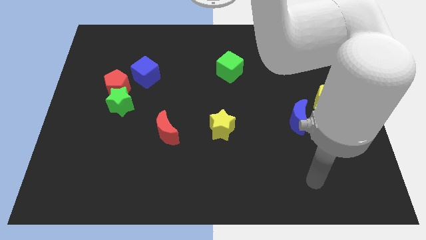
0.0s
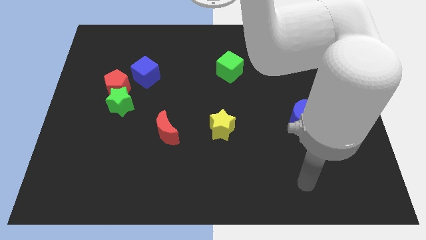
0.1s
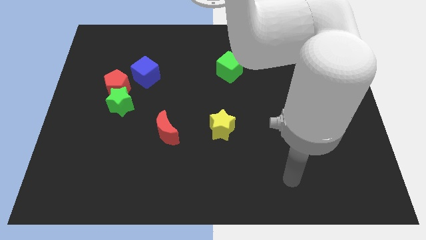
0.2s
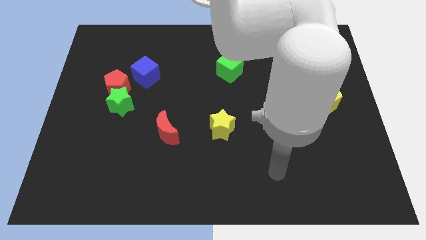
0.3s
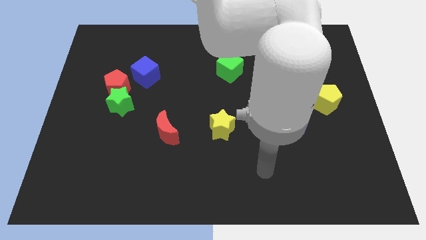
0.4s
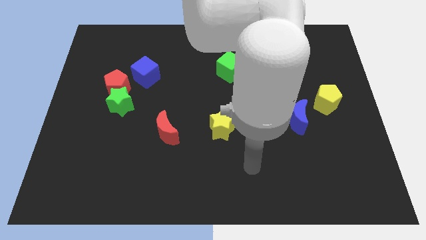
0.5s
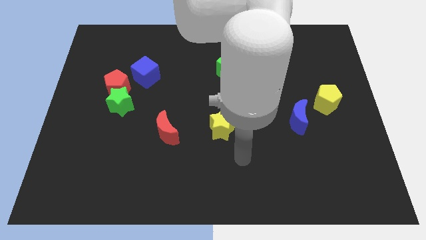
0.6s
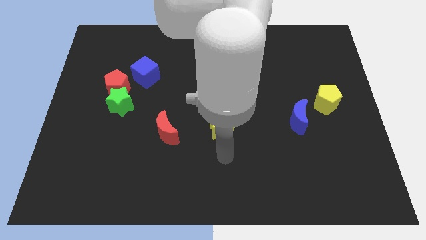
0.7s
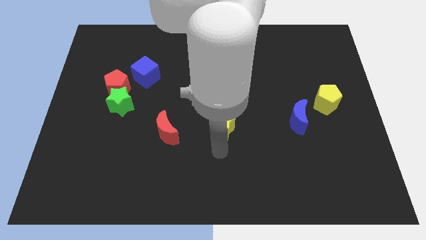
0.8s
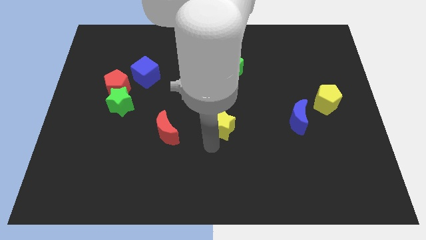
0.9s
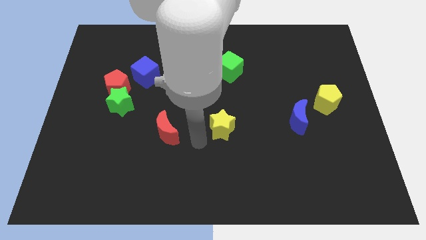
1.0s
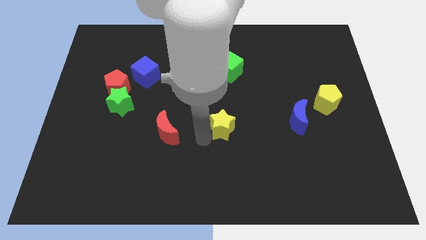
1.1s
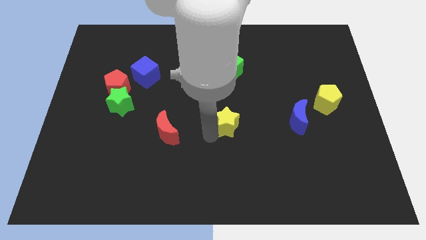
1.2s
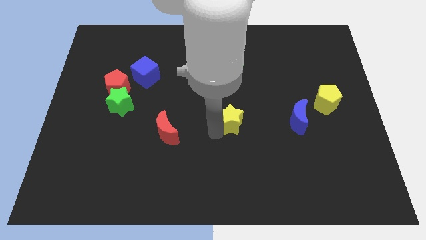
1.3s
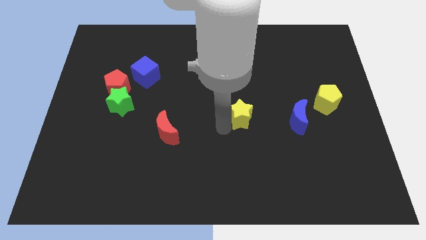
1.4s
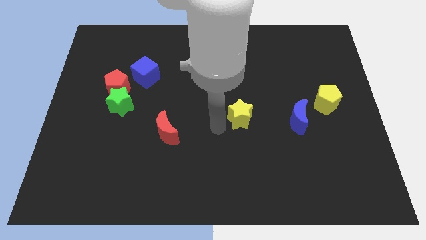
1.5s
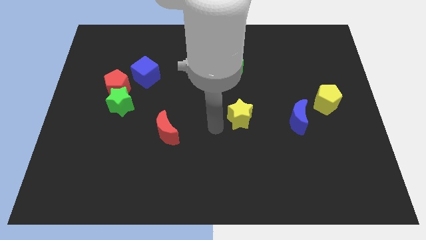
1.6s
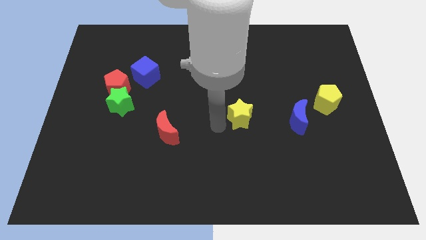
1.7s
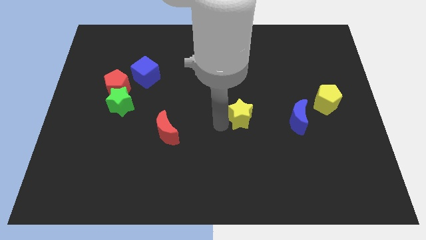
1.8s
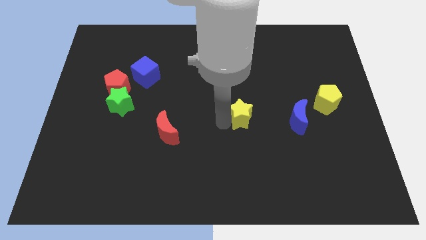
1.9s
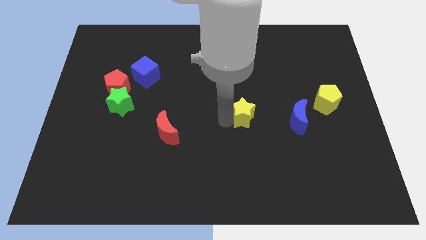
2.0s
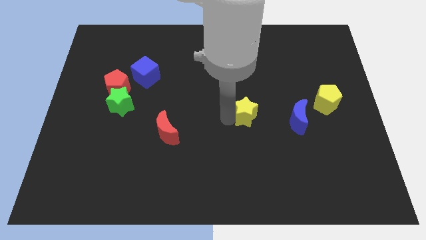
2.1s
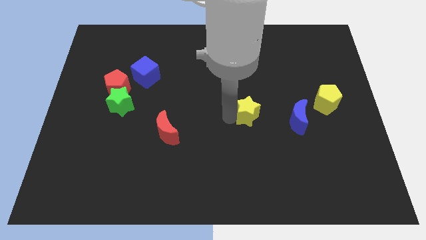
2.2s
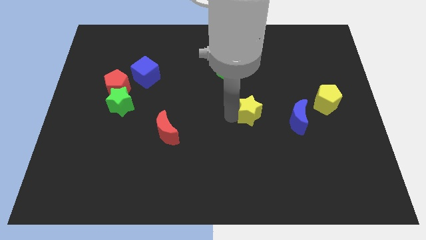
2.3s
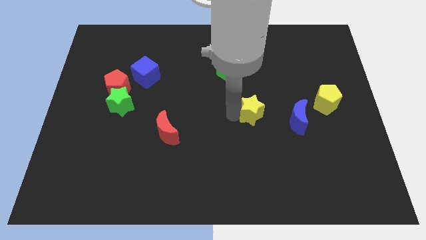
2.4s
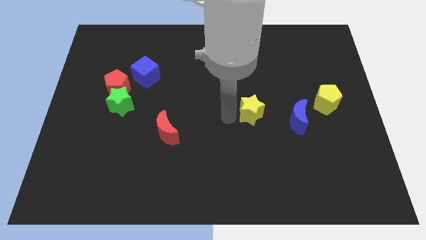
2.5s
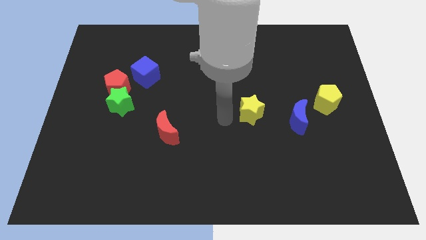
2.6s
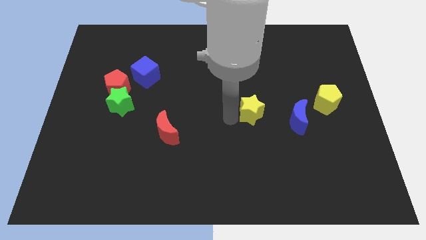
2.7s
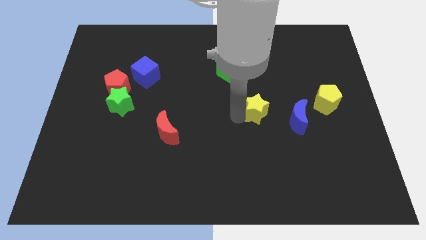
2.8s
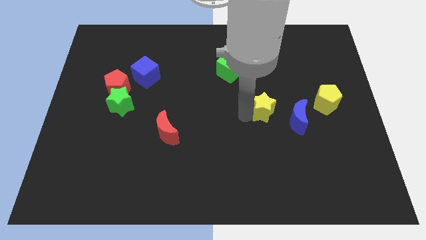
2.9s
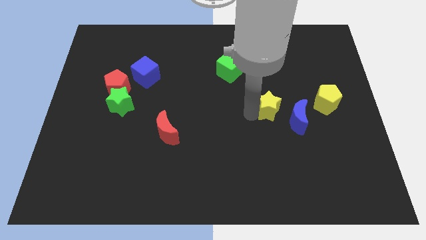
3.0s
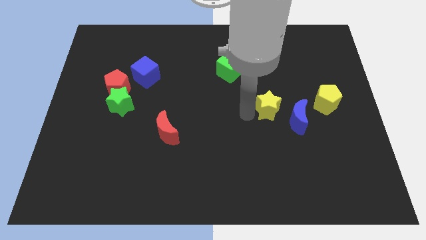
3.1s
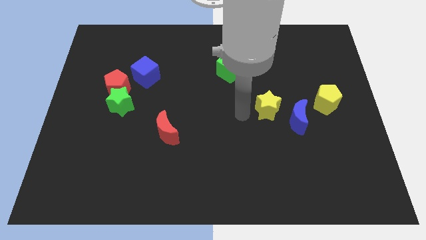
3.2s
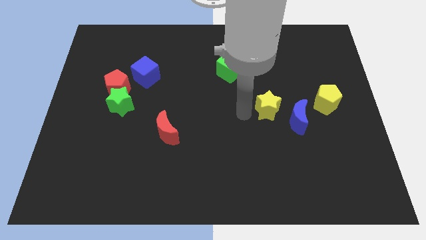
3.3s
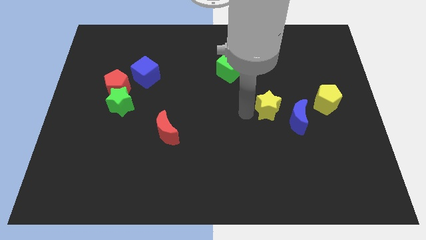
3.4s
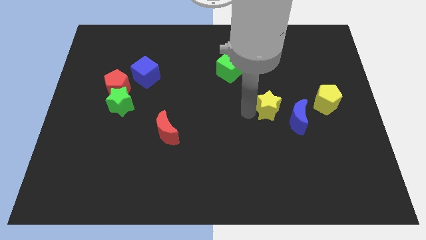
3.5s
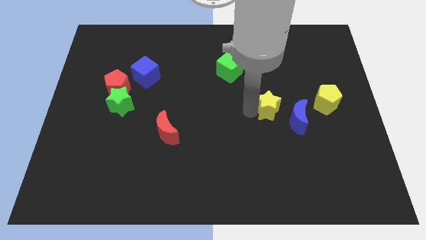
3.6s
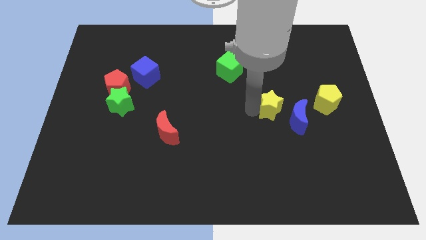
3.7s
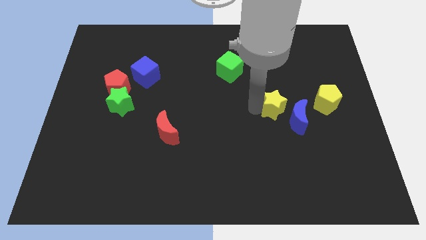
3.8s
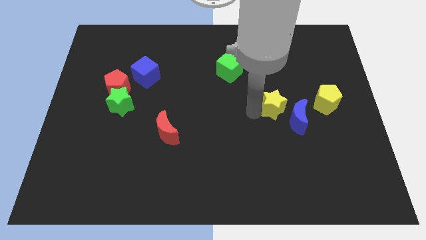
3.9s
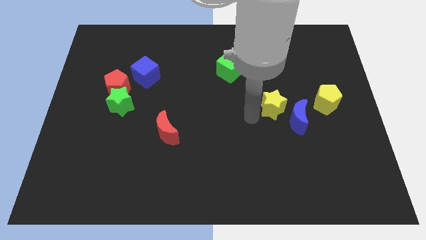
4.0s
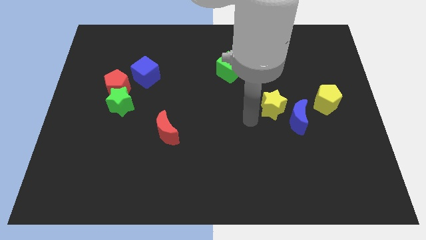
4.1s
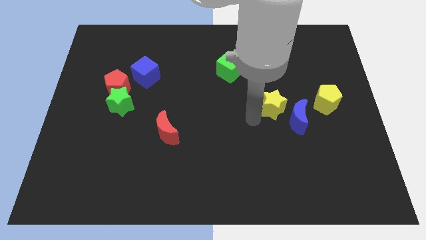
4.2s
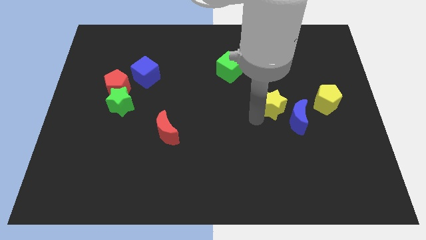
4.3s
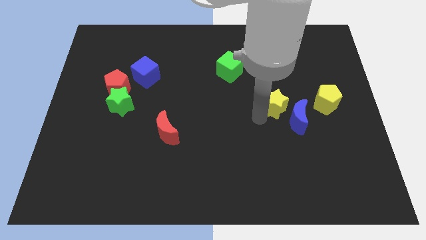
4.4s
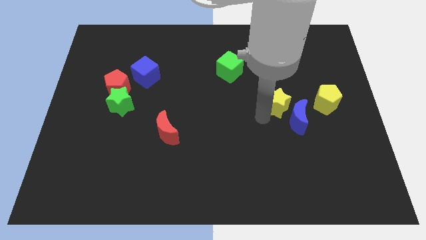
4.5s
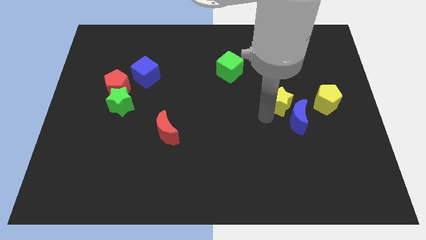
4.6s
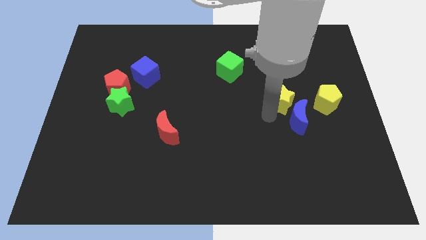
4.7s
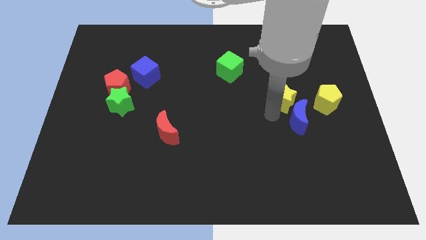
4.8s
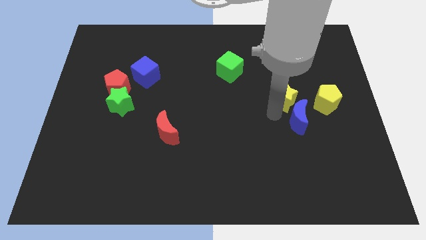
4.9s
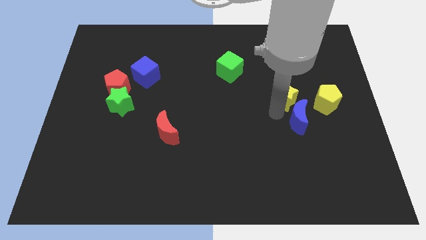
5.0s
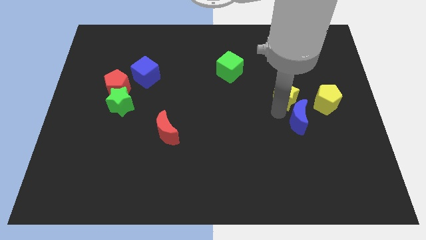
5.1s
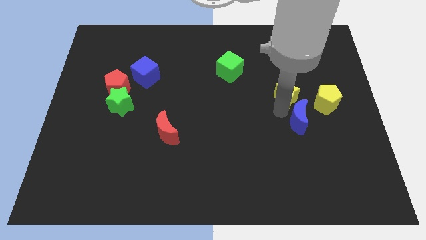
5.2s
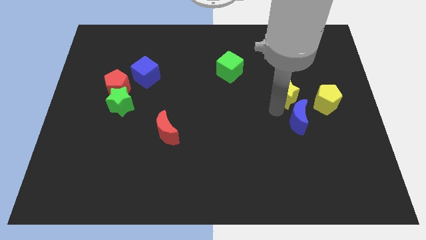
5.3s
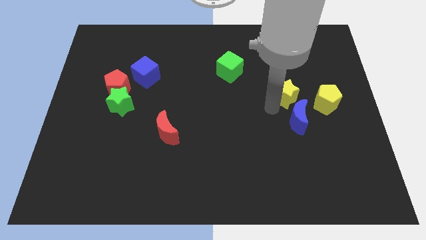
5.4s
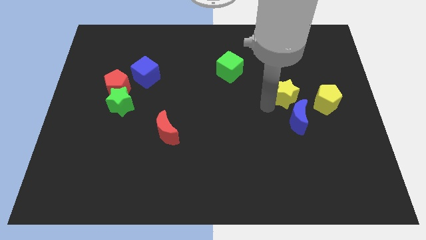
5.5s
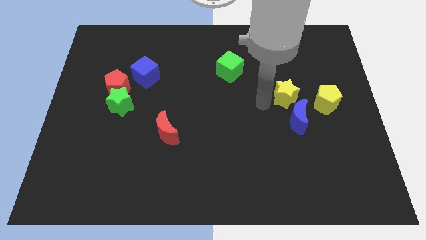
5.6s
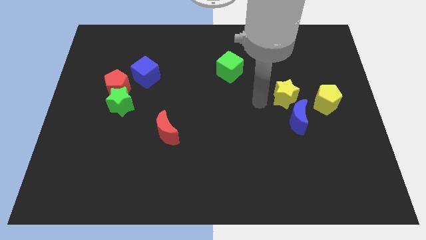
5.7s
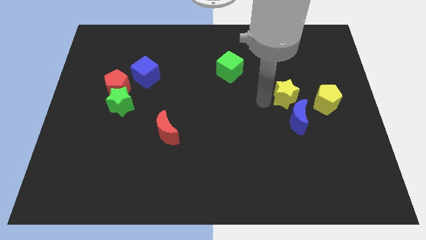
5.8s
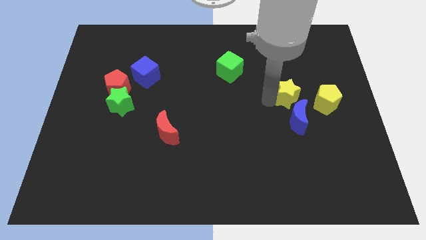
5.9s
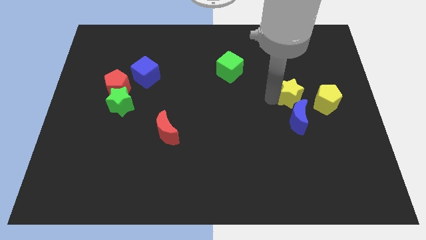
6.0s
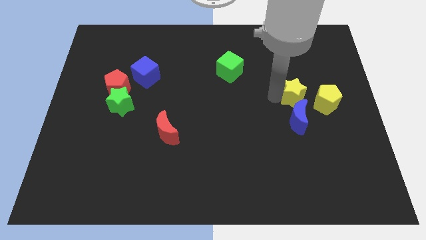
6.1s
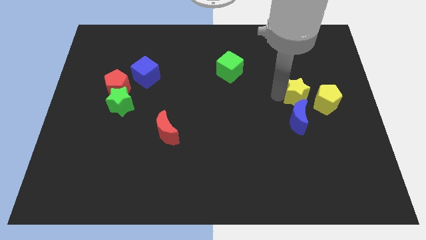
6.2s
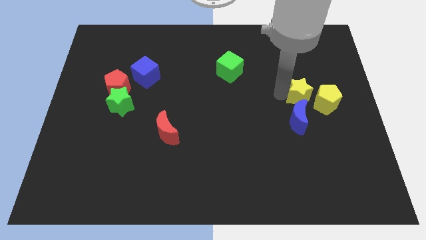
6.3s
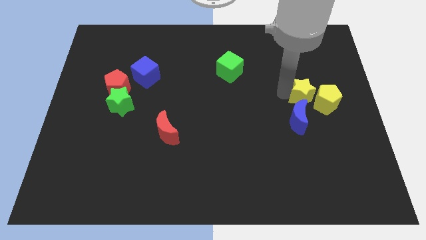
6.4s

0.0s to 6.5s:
push the yellow star close to the yellow pentagon

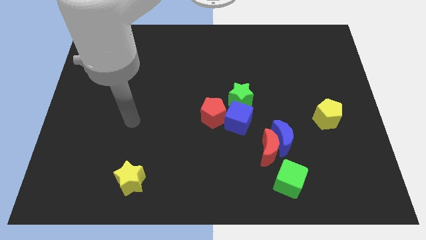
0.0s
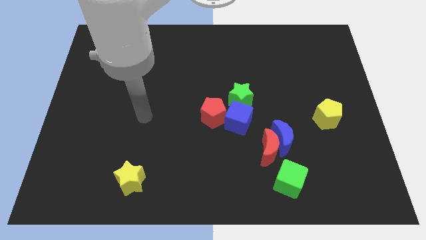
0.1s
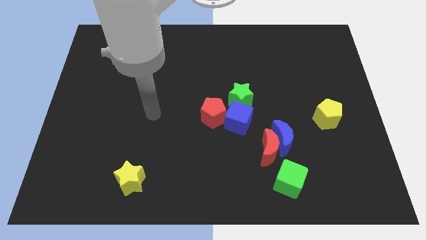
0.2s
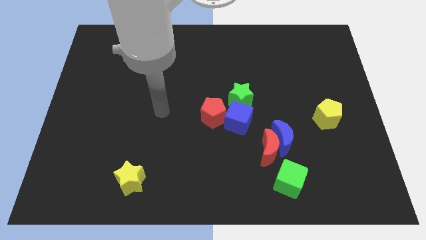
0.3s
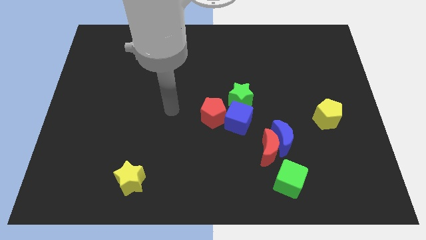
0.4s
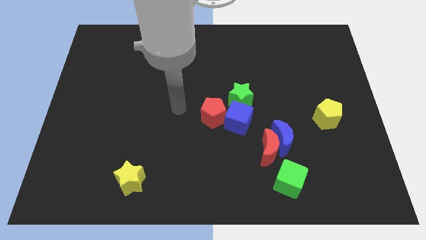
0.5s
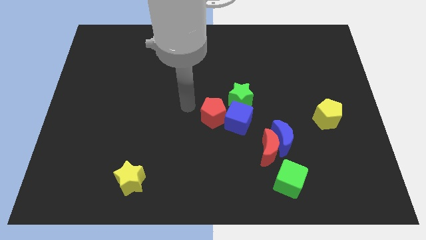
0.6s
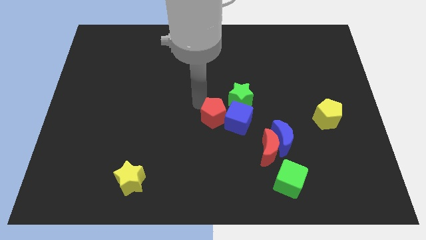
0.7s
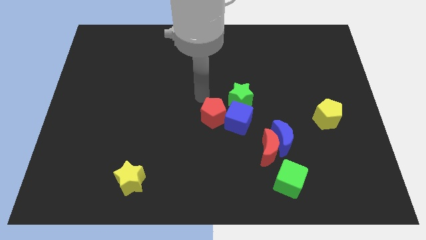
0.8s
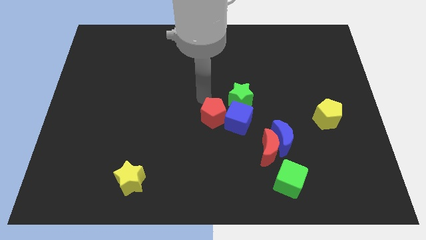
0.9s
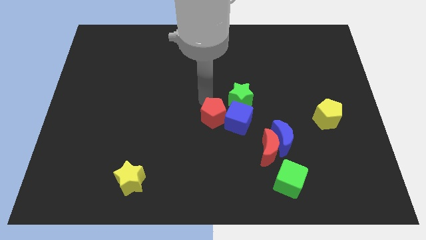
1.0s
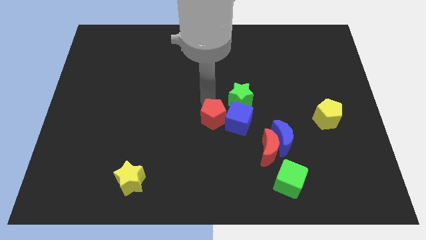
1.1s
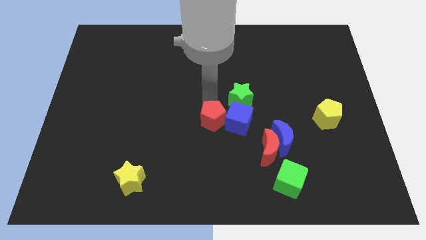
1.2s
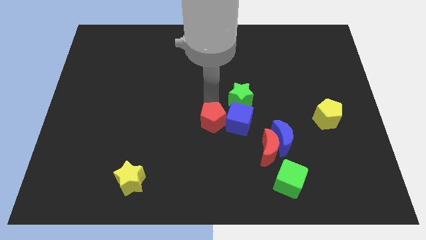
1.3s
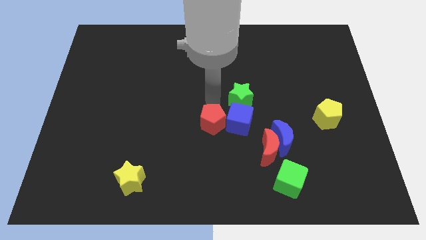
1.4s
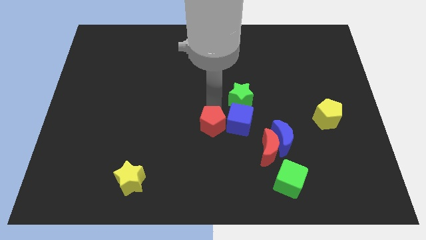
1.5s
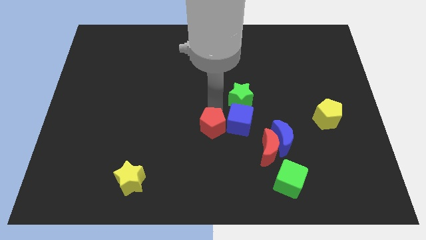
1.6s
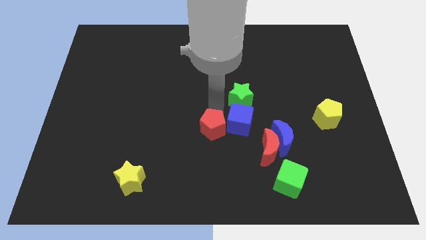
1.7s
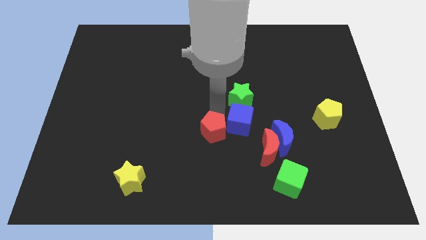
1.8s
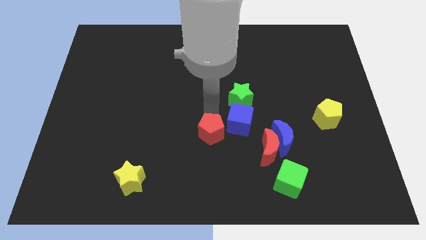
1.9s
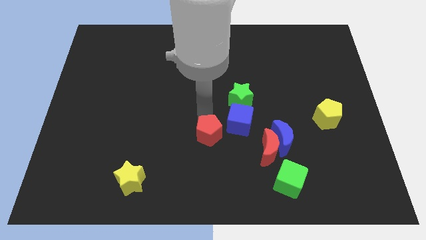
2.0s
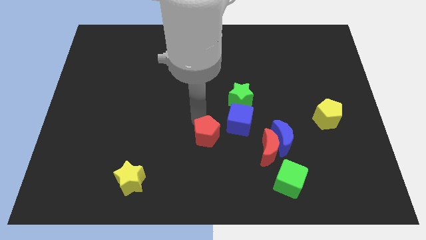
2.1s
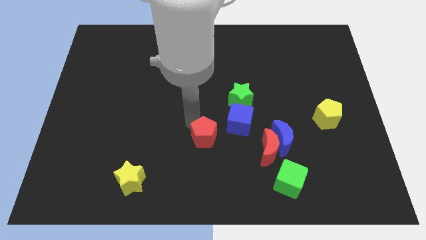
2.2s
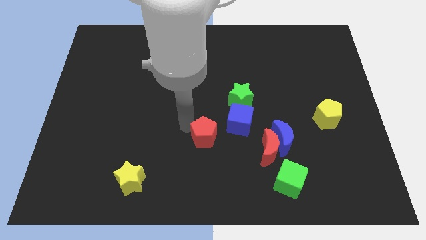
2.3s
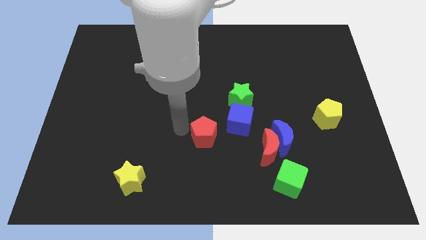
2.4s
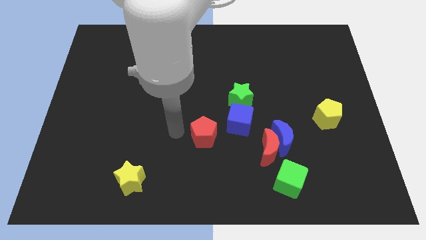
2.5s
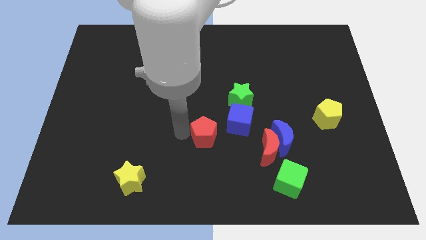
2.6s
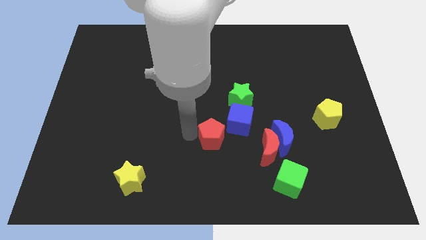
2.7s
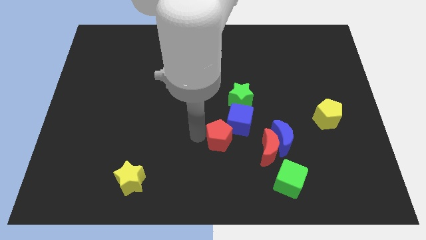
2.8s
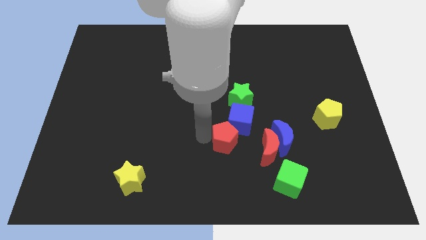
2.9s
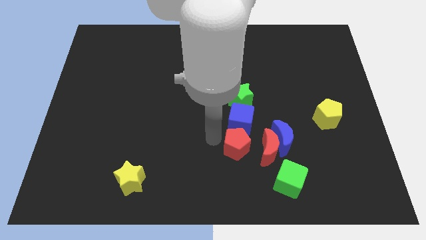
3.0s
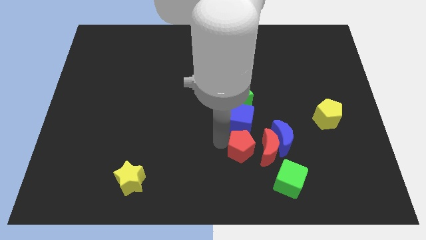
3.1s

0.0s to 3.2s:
push the red pentagon next to the red moon
